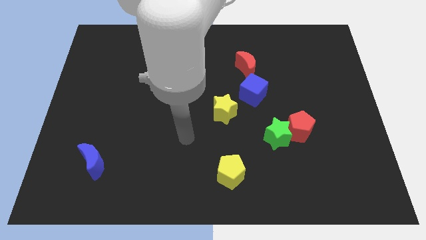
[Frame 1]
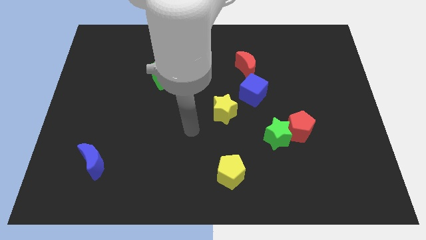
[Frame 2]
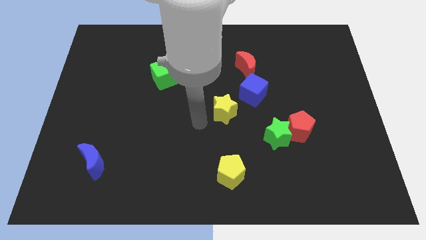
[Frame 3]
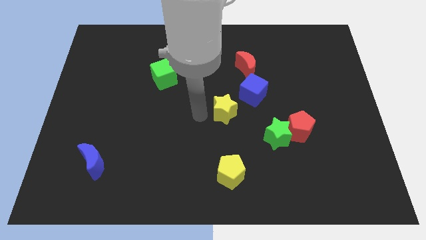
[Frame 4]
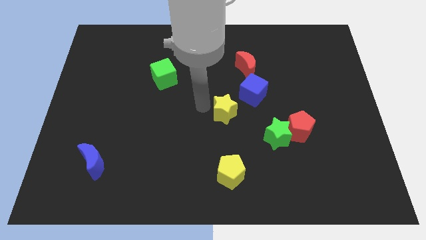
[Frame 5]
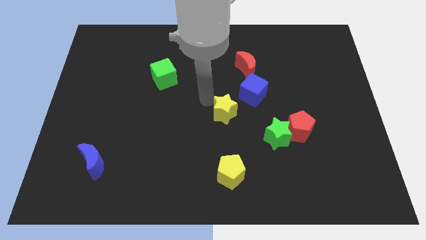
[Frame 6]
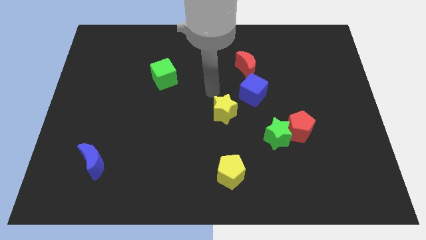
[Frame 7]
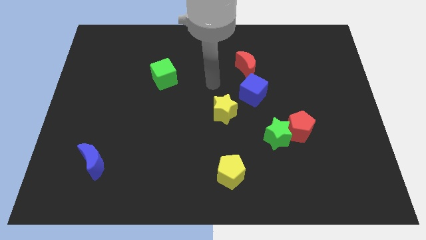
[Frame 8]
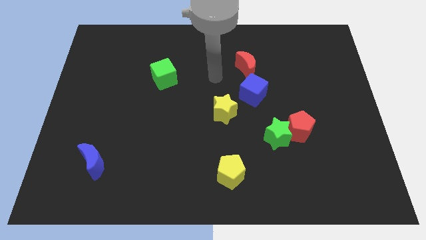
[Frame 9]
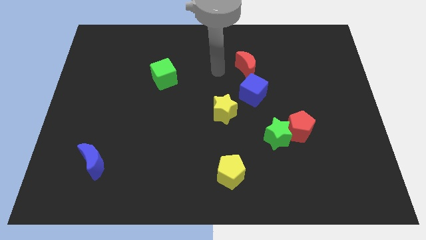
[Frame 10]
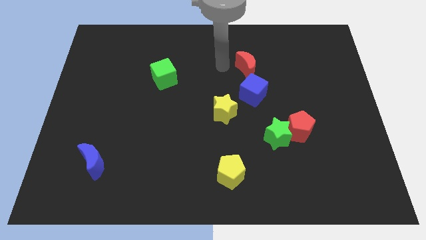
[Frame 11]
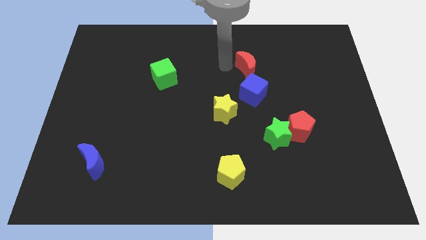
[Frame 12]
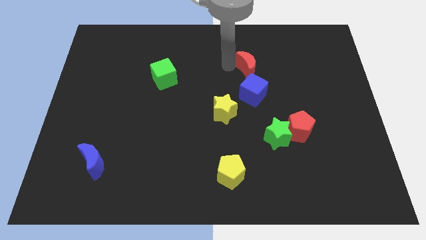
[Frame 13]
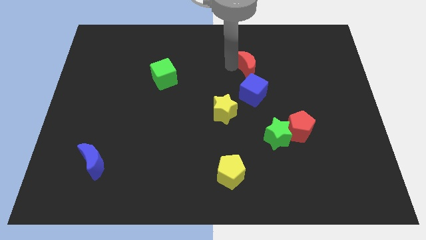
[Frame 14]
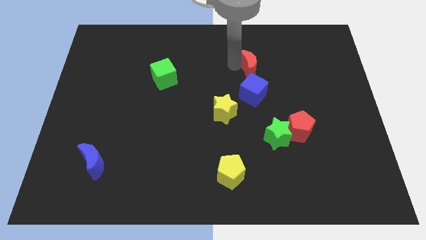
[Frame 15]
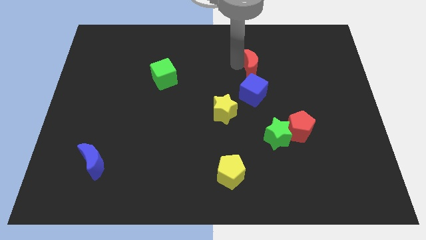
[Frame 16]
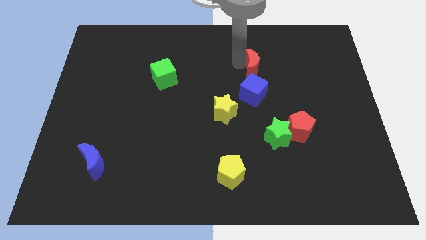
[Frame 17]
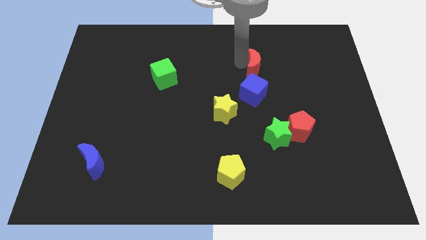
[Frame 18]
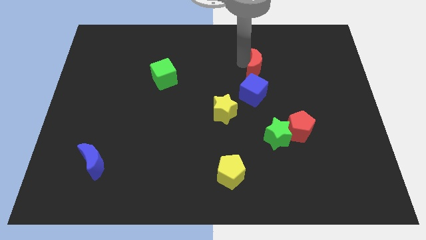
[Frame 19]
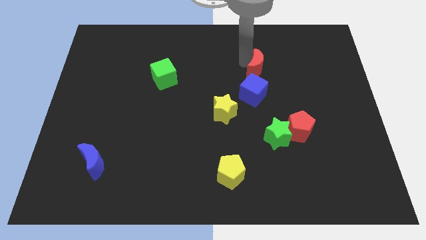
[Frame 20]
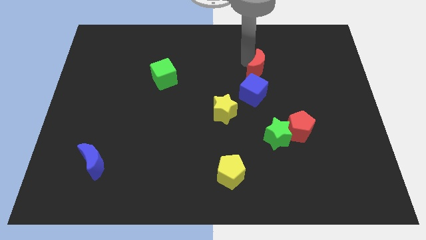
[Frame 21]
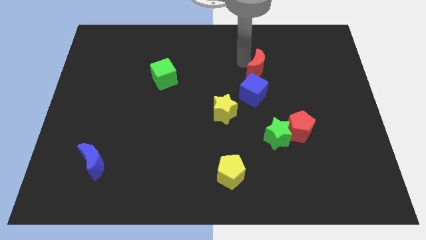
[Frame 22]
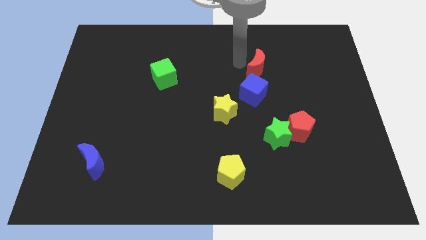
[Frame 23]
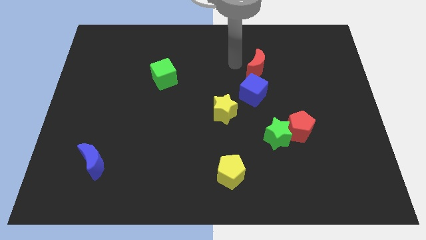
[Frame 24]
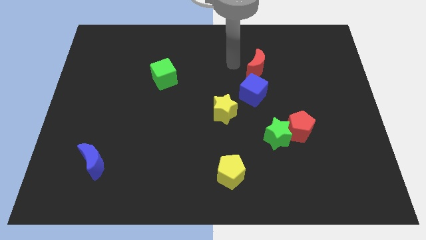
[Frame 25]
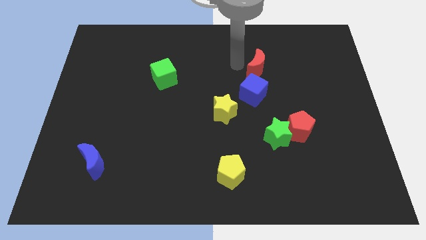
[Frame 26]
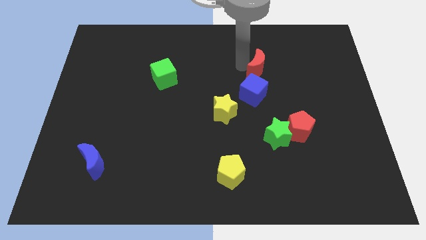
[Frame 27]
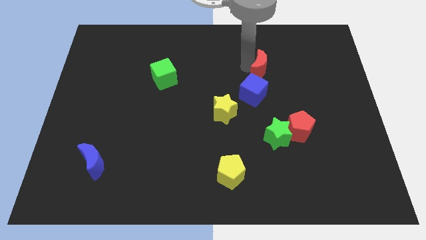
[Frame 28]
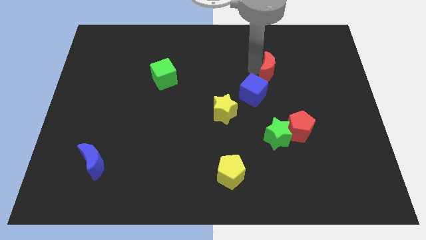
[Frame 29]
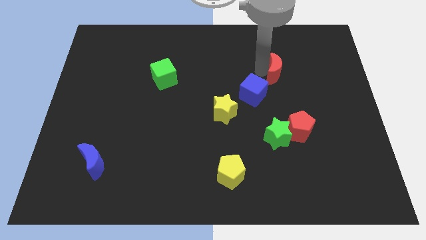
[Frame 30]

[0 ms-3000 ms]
push the red moon a bit right

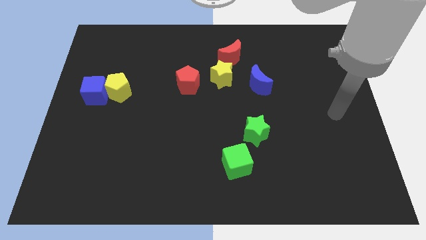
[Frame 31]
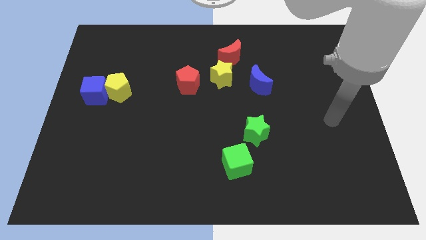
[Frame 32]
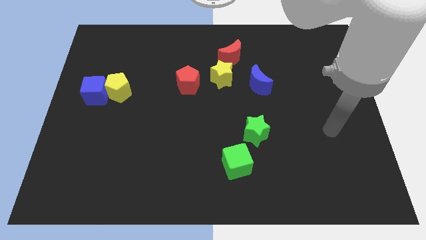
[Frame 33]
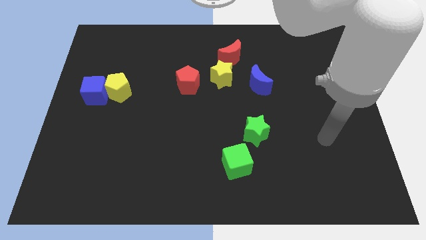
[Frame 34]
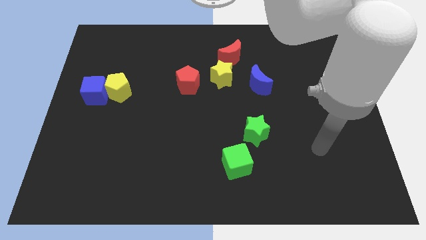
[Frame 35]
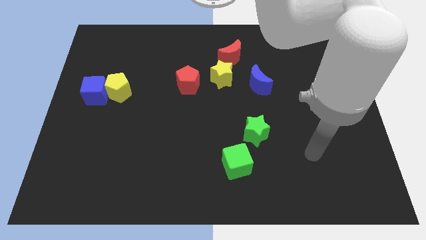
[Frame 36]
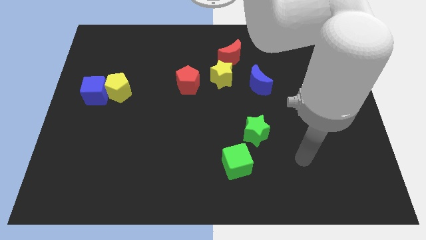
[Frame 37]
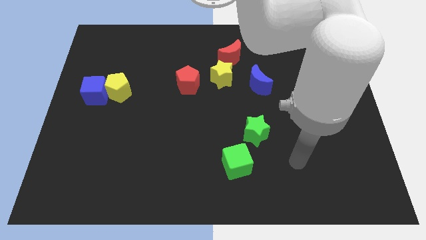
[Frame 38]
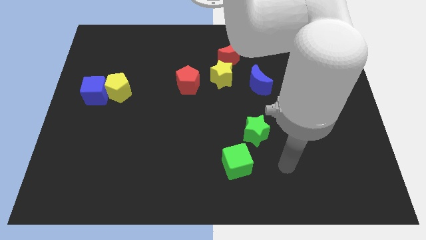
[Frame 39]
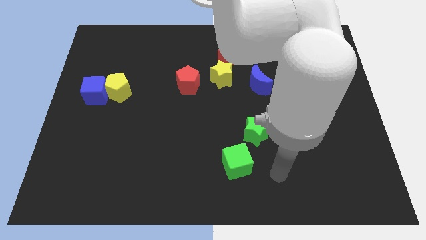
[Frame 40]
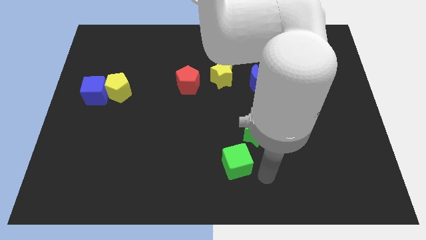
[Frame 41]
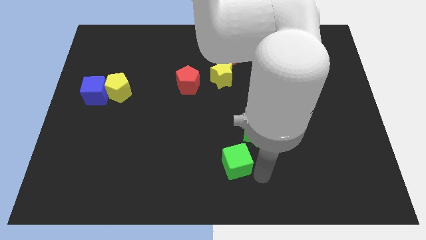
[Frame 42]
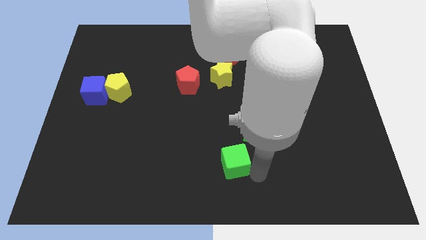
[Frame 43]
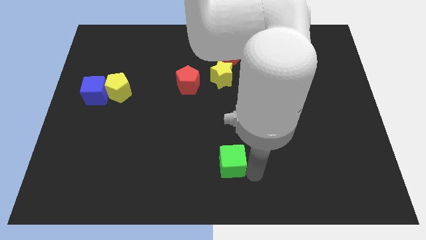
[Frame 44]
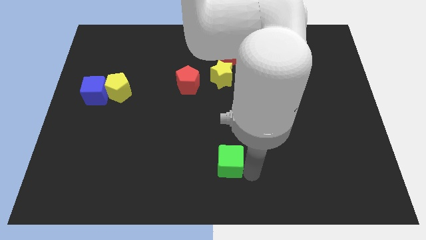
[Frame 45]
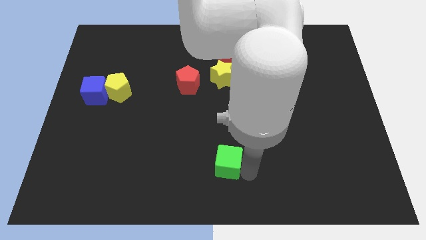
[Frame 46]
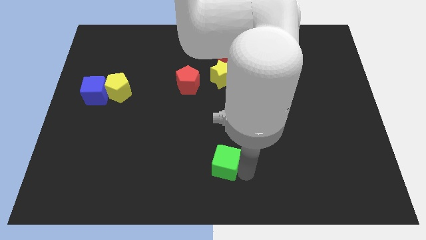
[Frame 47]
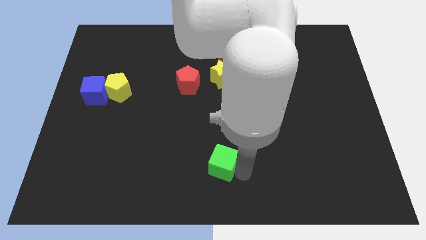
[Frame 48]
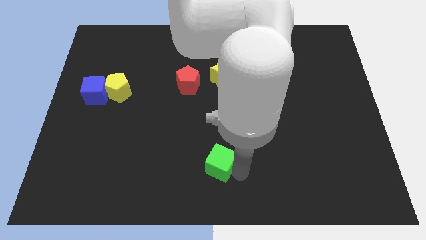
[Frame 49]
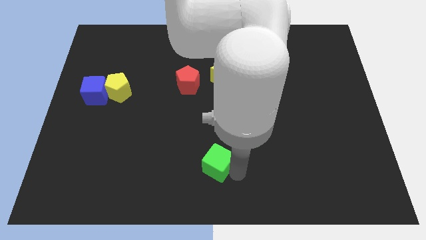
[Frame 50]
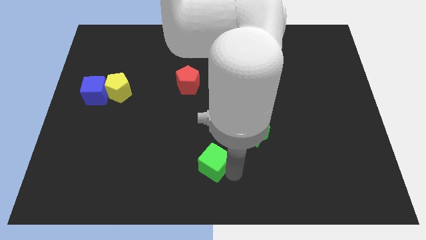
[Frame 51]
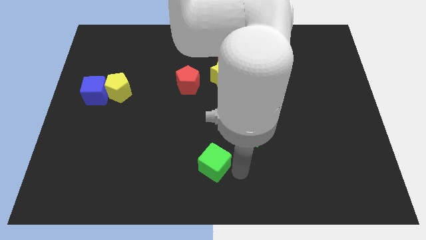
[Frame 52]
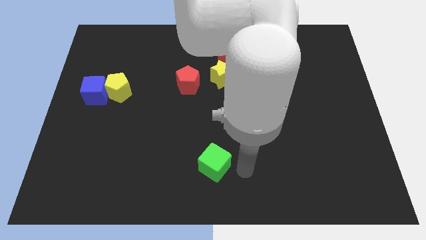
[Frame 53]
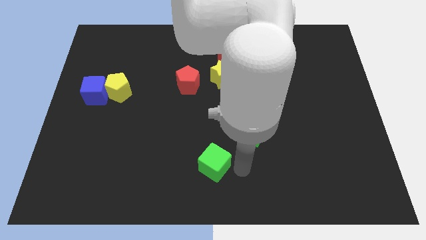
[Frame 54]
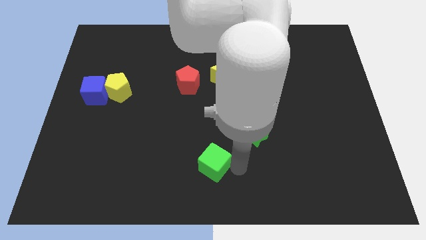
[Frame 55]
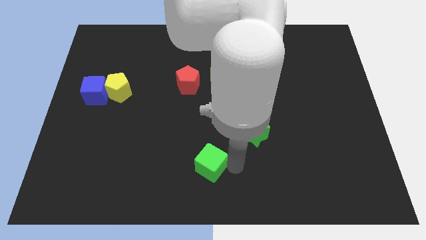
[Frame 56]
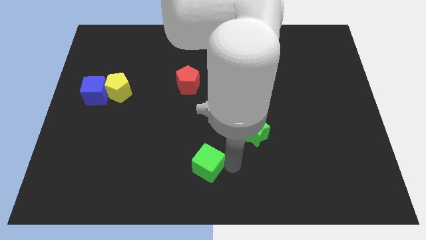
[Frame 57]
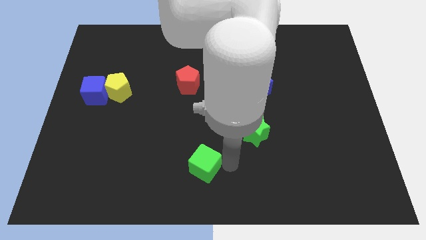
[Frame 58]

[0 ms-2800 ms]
move the green cube to the left slightly

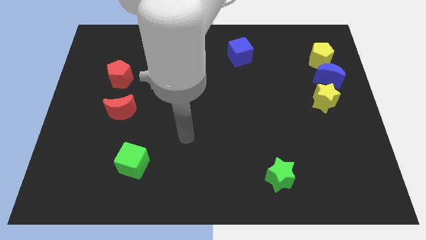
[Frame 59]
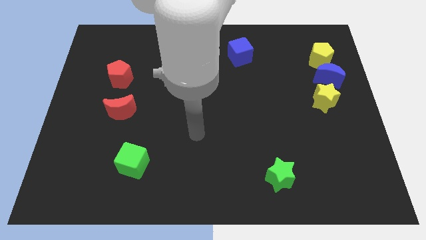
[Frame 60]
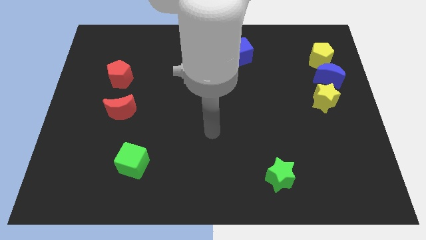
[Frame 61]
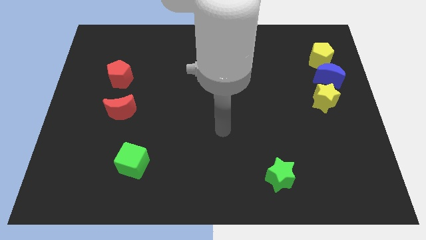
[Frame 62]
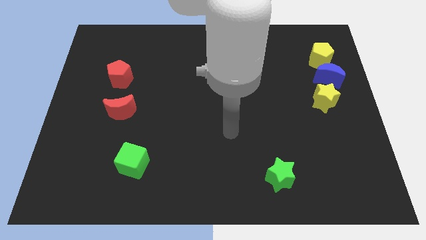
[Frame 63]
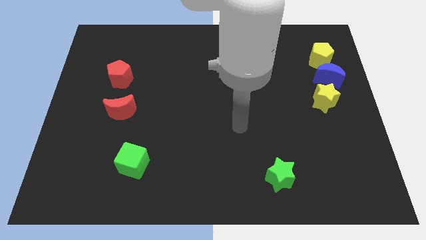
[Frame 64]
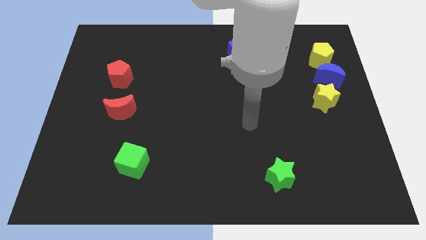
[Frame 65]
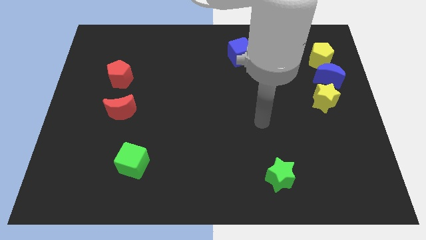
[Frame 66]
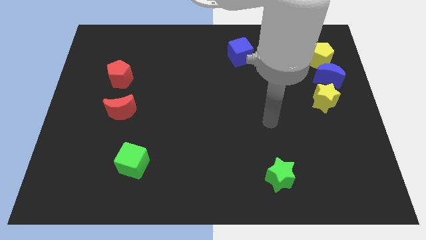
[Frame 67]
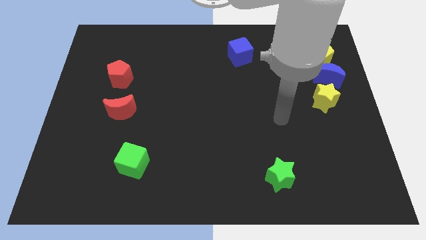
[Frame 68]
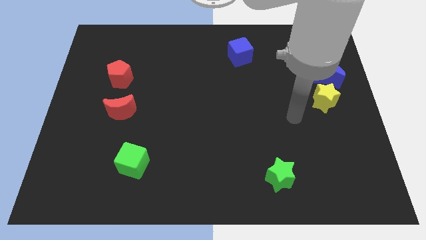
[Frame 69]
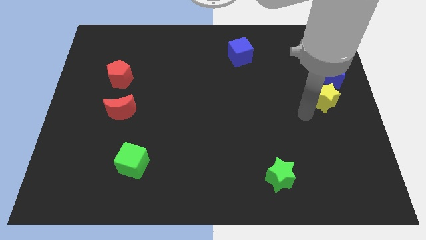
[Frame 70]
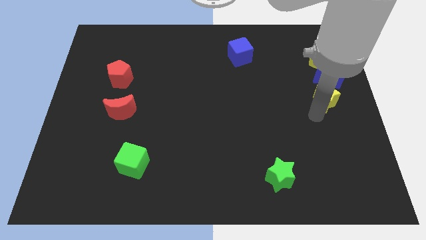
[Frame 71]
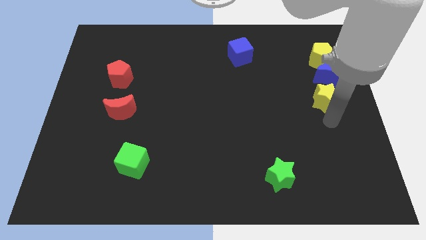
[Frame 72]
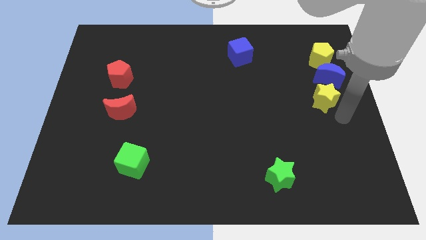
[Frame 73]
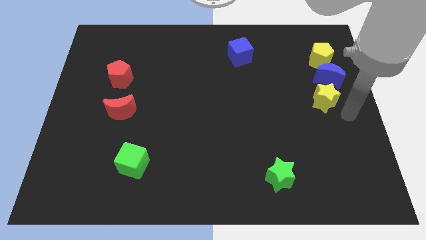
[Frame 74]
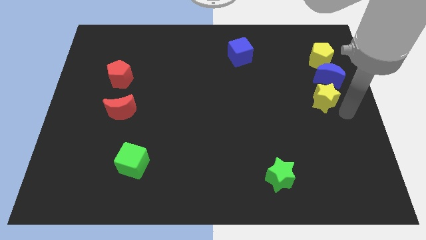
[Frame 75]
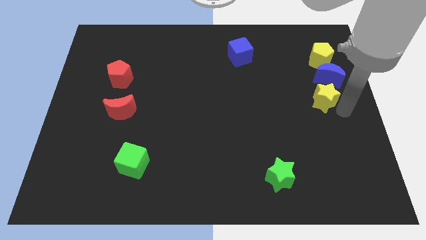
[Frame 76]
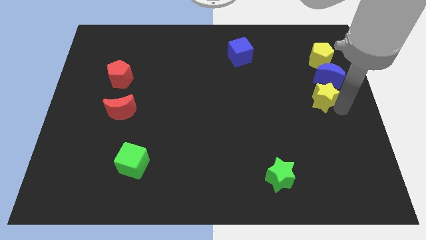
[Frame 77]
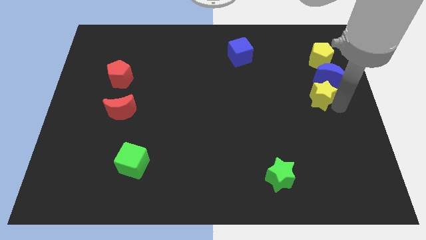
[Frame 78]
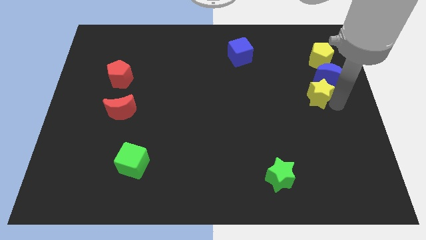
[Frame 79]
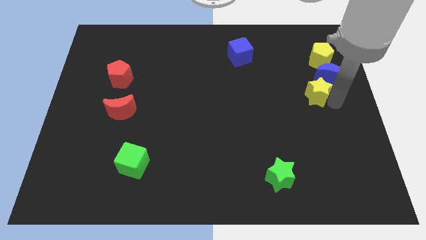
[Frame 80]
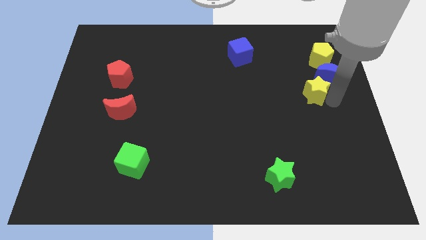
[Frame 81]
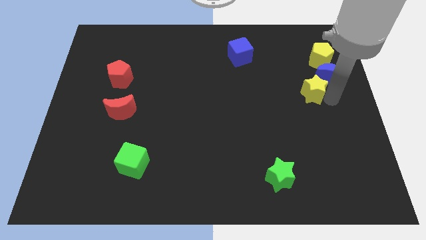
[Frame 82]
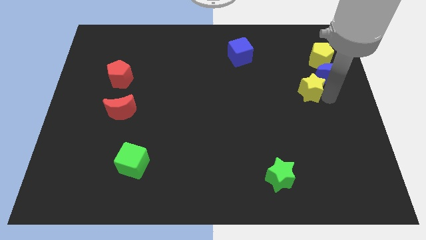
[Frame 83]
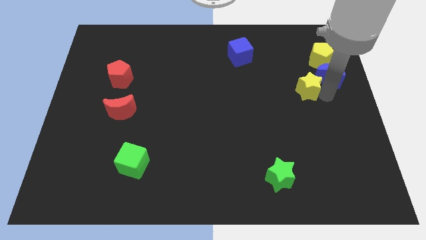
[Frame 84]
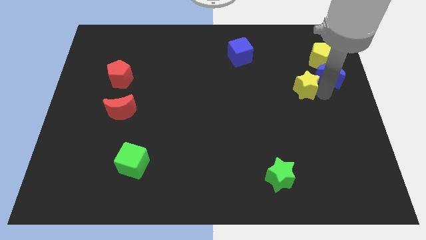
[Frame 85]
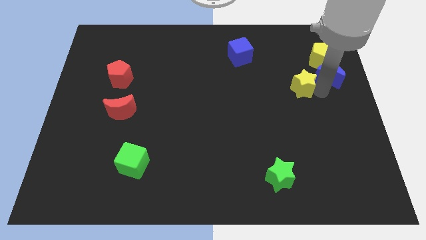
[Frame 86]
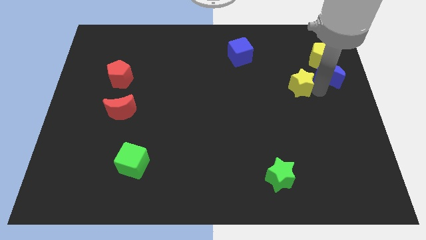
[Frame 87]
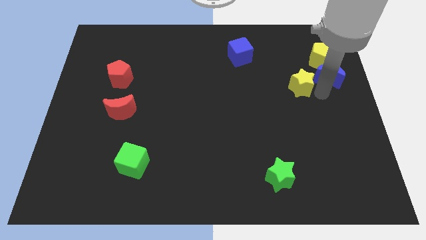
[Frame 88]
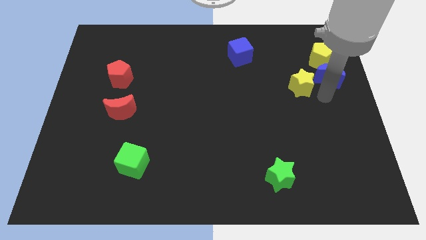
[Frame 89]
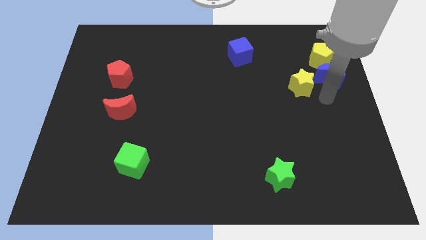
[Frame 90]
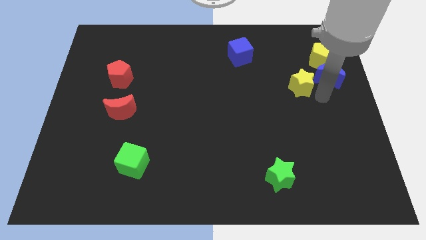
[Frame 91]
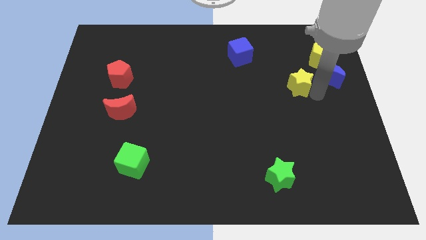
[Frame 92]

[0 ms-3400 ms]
slightly slide the yellow star diagonally up and left
